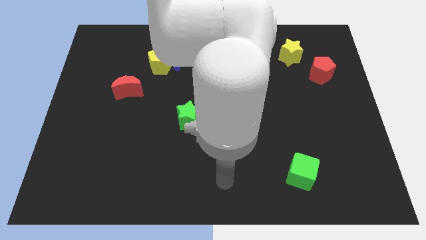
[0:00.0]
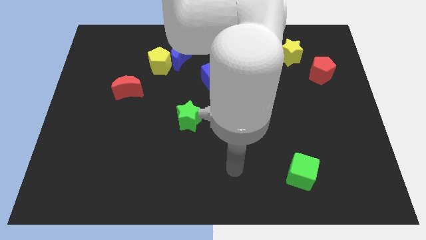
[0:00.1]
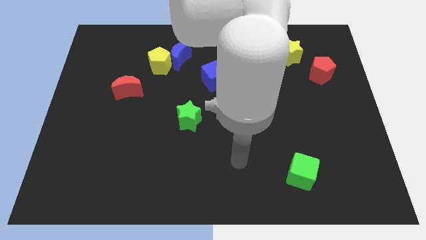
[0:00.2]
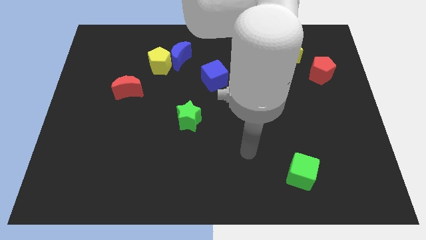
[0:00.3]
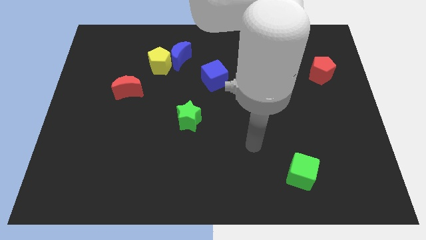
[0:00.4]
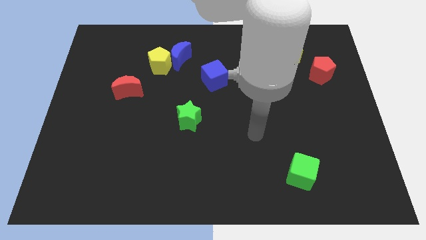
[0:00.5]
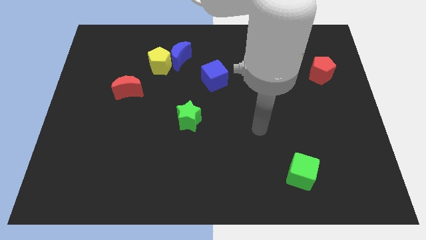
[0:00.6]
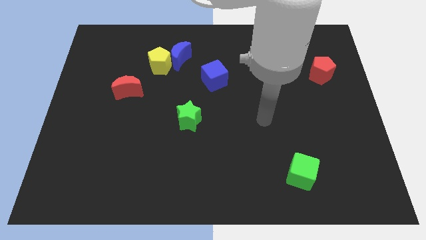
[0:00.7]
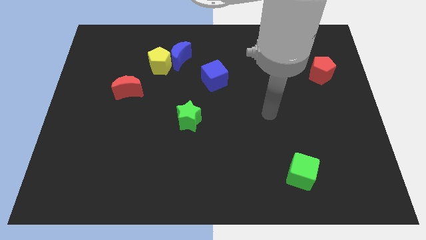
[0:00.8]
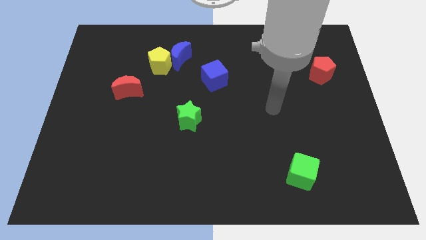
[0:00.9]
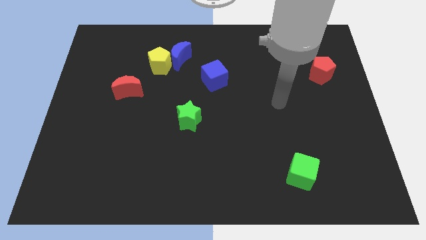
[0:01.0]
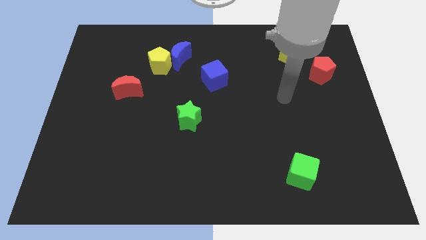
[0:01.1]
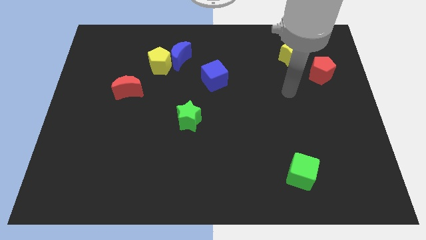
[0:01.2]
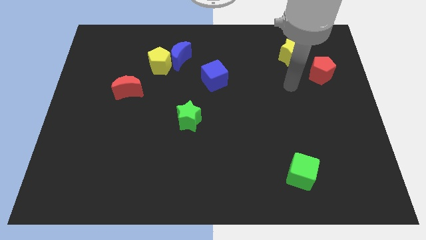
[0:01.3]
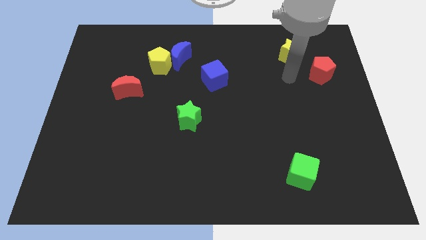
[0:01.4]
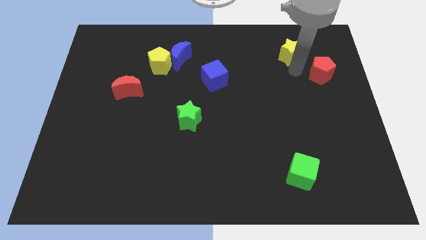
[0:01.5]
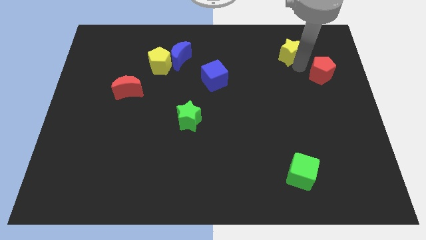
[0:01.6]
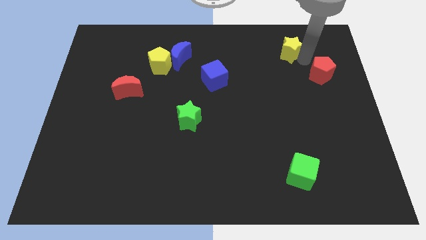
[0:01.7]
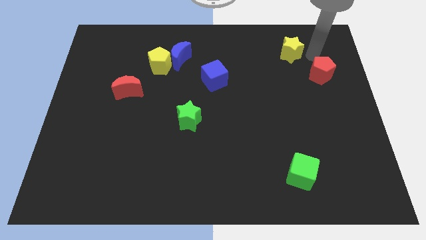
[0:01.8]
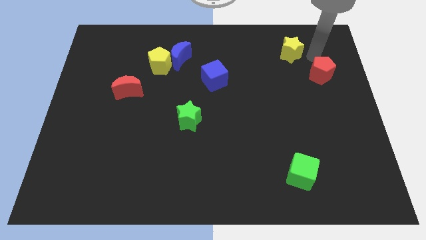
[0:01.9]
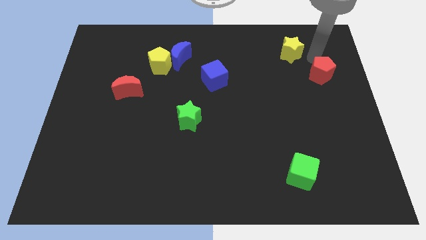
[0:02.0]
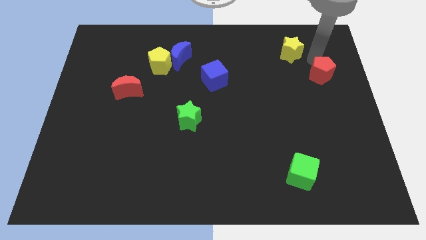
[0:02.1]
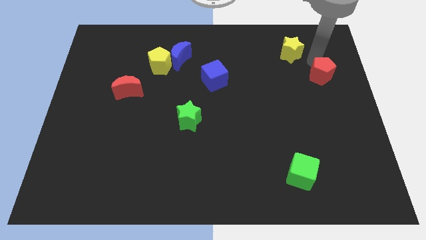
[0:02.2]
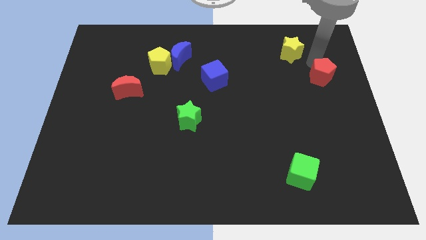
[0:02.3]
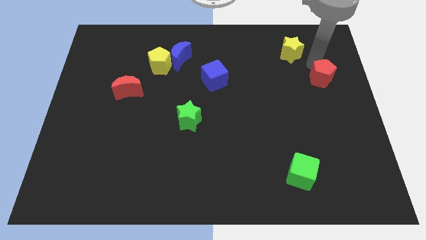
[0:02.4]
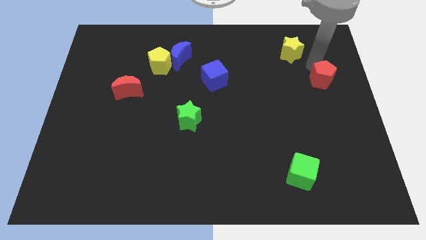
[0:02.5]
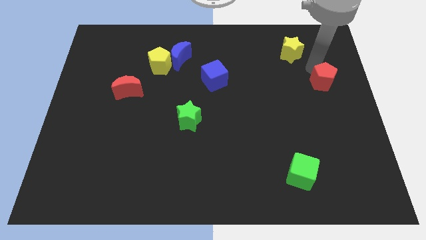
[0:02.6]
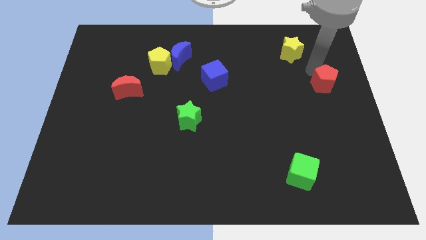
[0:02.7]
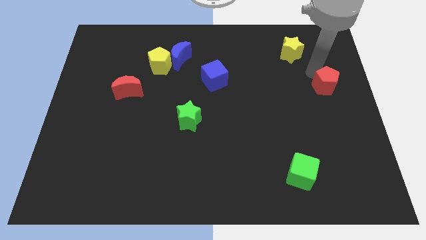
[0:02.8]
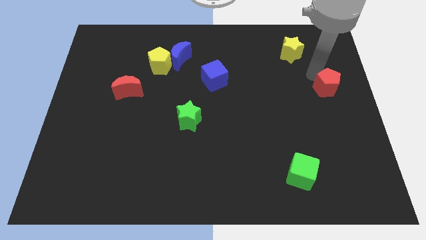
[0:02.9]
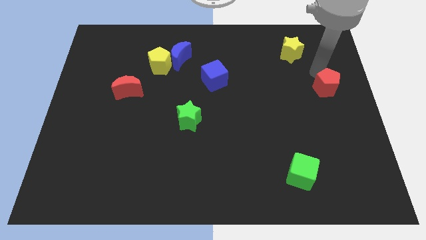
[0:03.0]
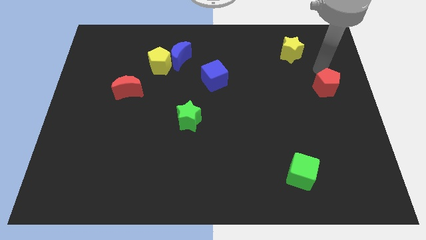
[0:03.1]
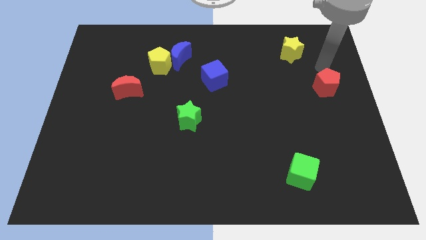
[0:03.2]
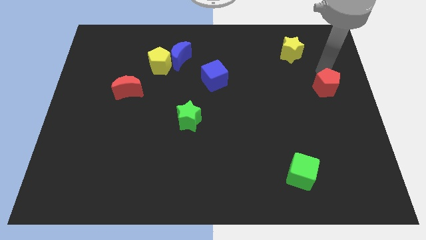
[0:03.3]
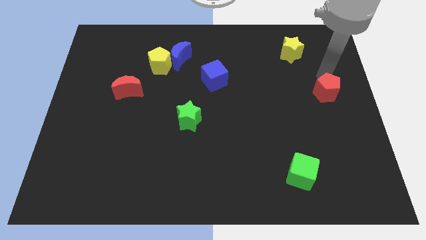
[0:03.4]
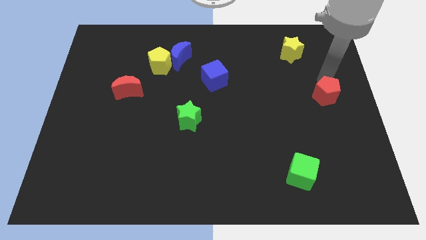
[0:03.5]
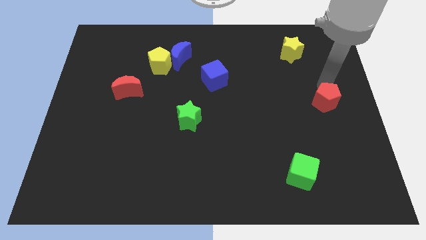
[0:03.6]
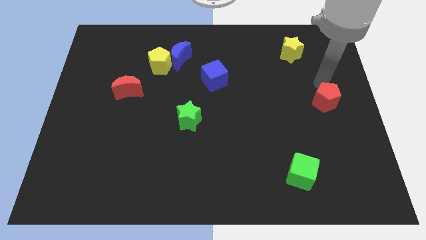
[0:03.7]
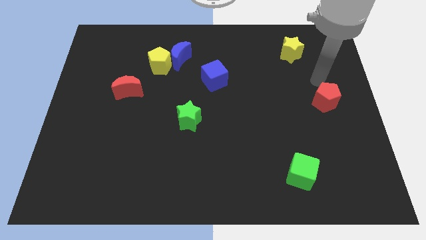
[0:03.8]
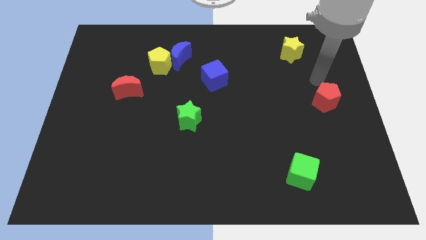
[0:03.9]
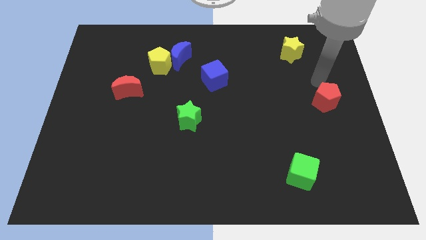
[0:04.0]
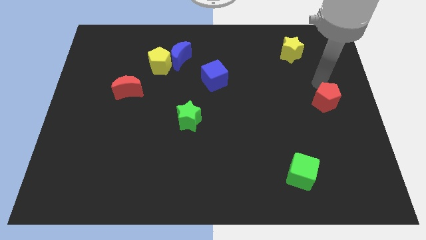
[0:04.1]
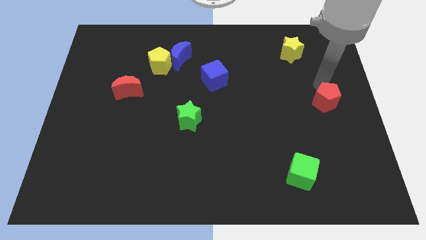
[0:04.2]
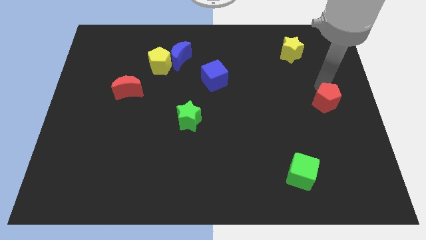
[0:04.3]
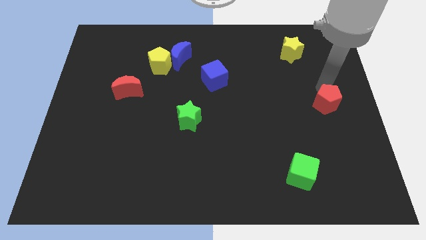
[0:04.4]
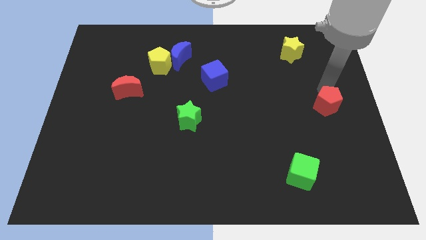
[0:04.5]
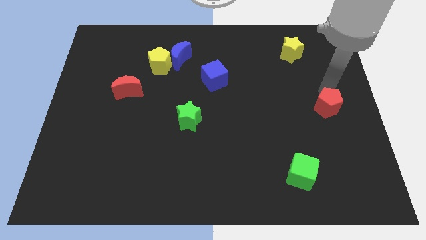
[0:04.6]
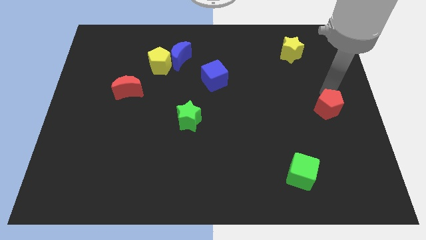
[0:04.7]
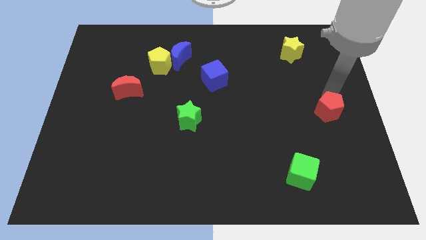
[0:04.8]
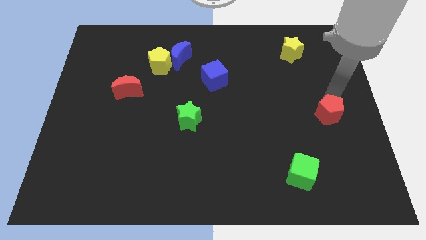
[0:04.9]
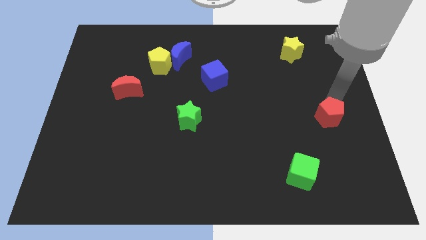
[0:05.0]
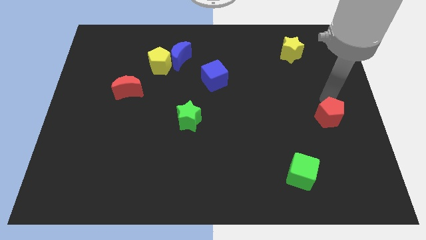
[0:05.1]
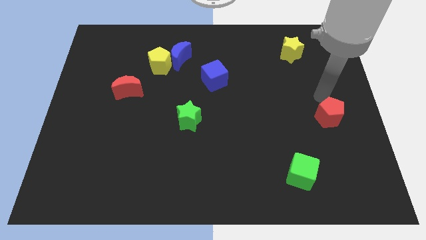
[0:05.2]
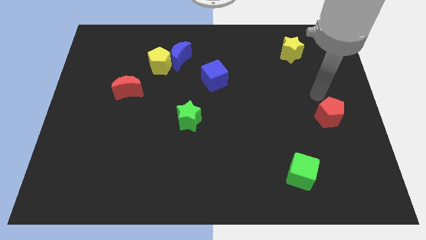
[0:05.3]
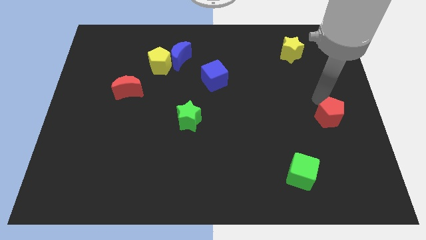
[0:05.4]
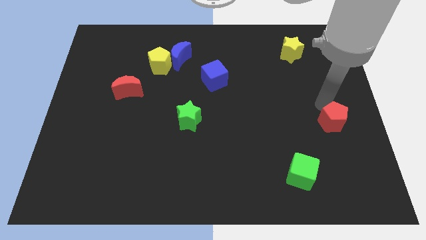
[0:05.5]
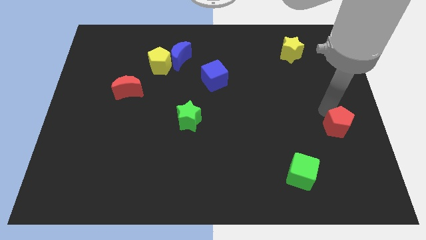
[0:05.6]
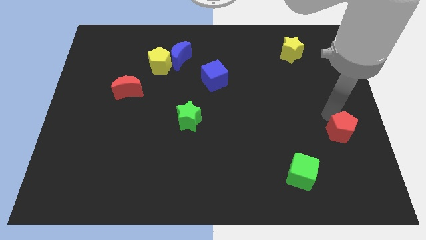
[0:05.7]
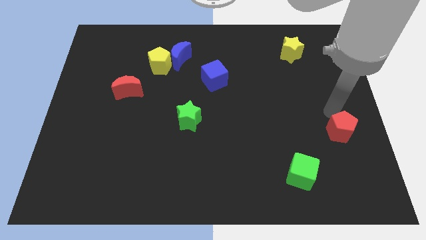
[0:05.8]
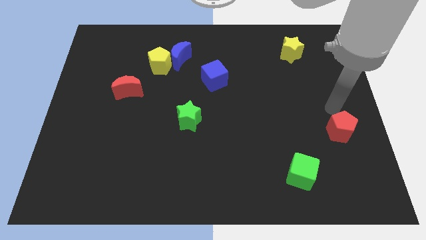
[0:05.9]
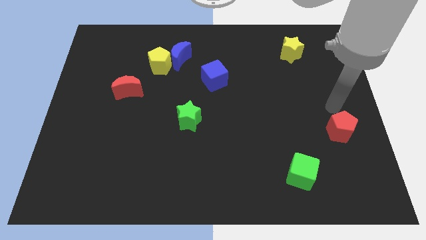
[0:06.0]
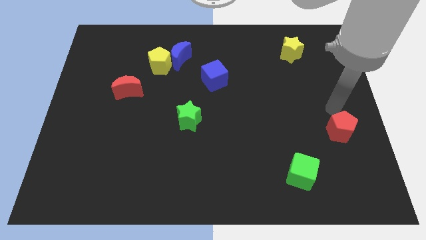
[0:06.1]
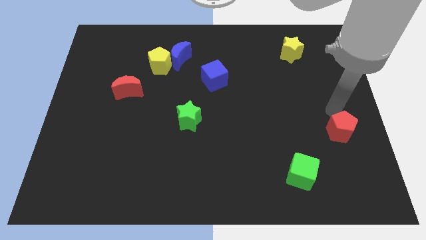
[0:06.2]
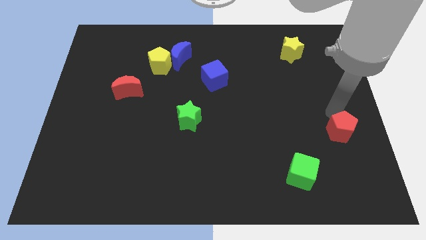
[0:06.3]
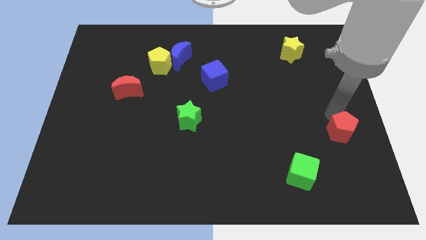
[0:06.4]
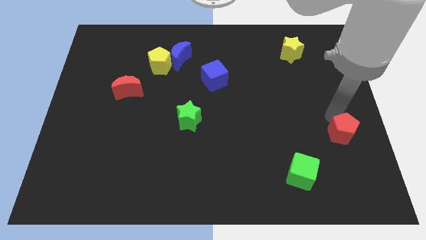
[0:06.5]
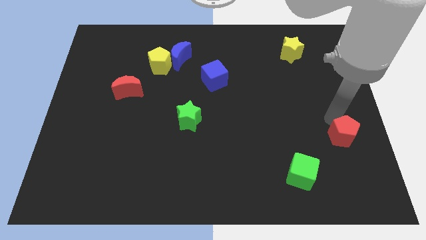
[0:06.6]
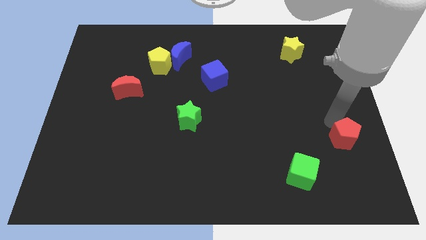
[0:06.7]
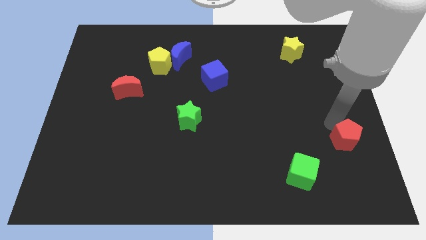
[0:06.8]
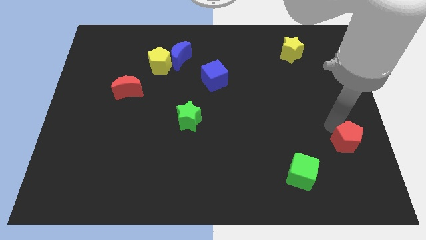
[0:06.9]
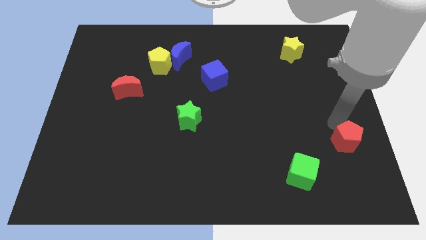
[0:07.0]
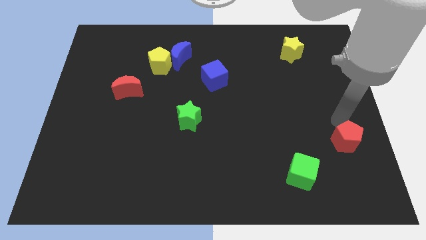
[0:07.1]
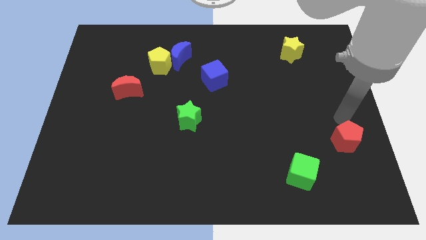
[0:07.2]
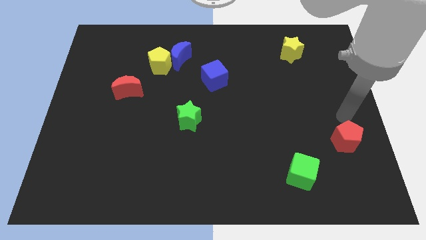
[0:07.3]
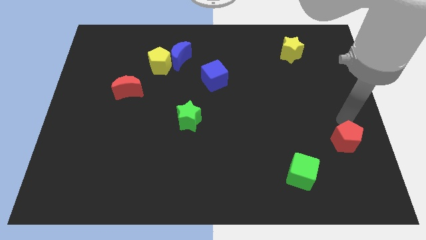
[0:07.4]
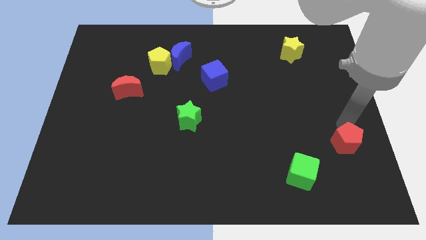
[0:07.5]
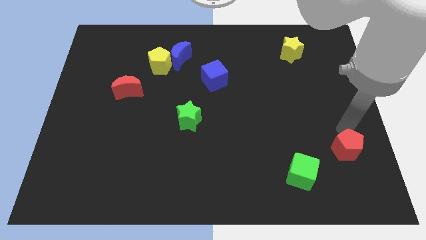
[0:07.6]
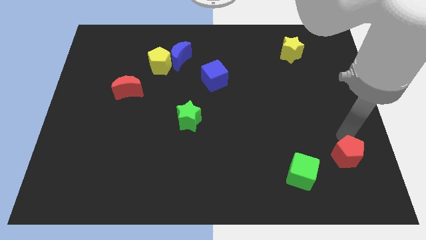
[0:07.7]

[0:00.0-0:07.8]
slide the red pentagon to the right side of the green cube
